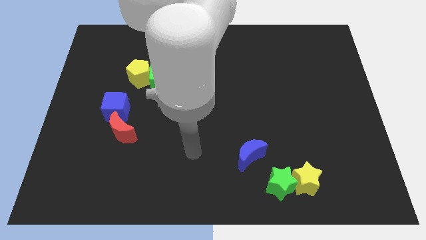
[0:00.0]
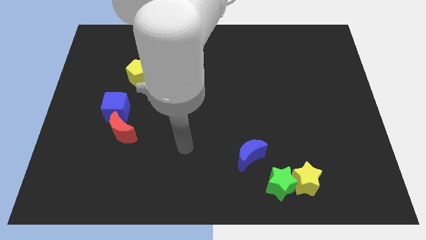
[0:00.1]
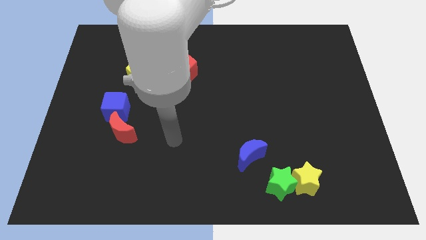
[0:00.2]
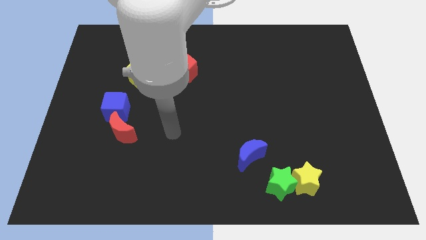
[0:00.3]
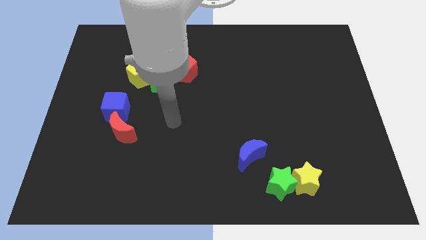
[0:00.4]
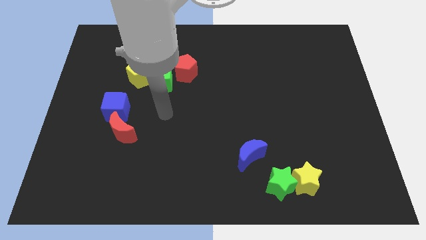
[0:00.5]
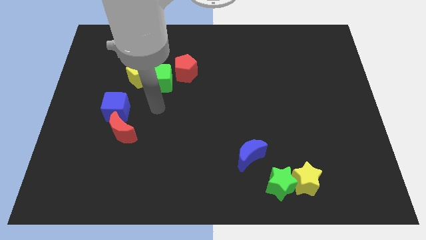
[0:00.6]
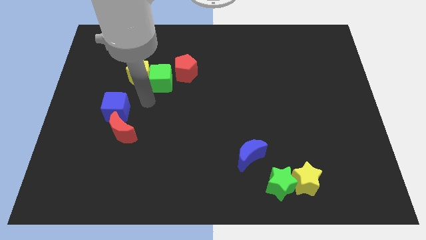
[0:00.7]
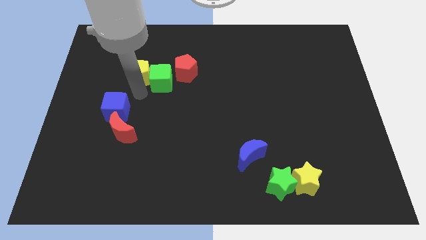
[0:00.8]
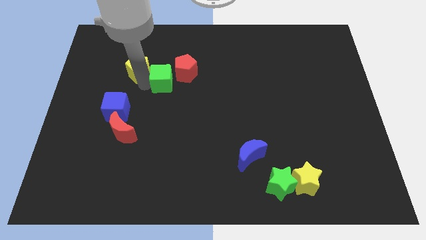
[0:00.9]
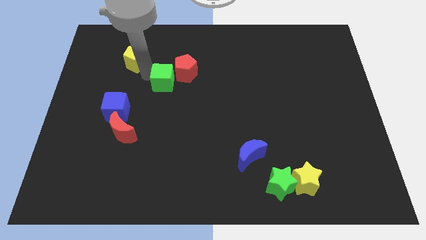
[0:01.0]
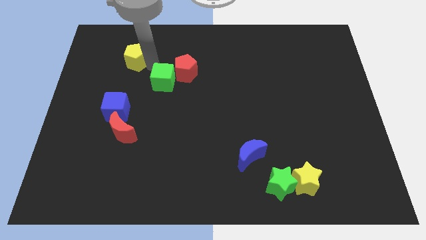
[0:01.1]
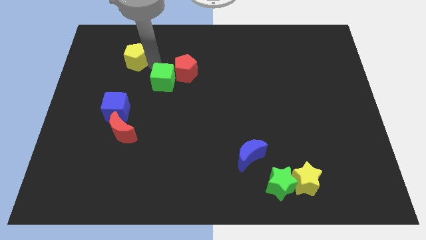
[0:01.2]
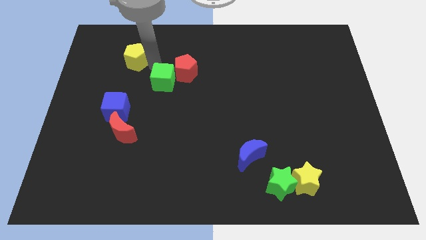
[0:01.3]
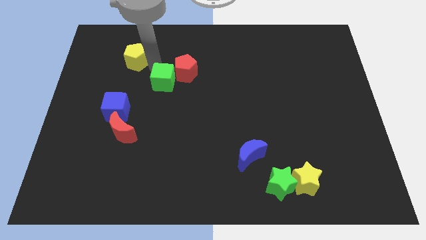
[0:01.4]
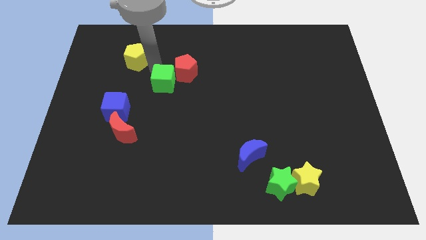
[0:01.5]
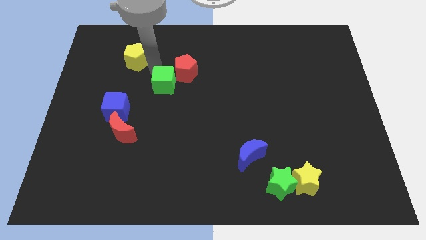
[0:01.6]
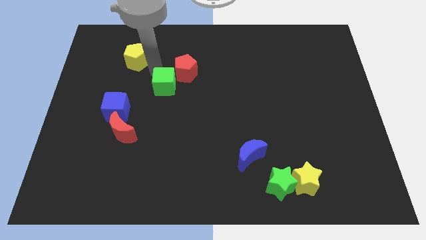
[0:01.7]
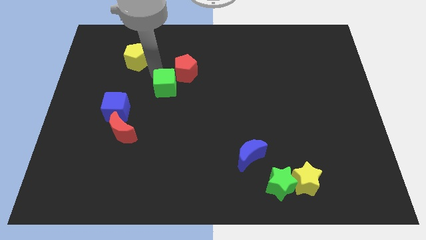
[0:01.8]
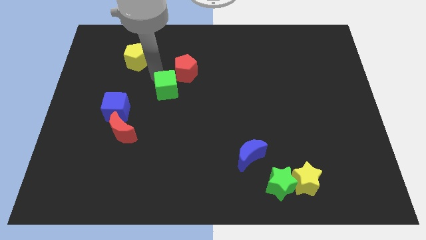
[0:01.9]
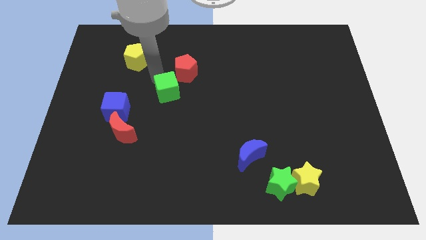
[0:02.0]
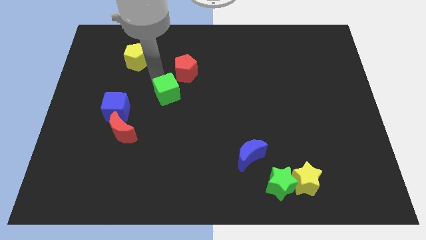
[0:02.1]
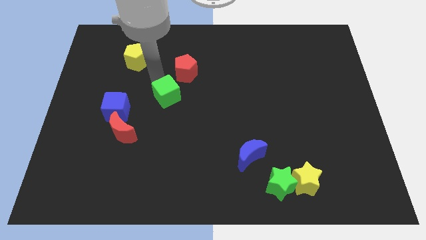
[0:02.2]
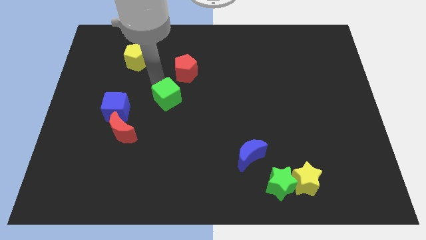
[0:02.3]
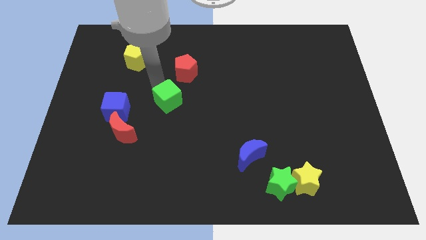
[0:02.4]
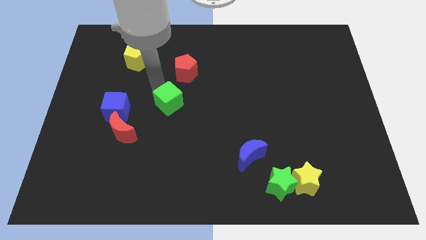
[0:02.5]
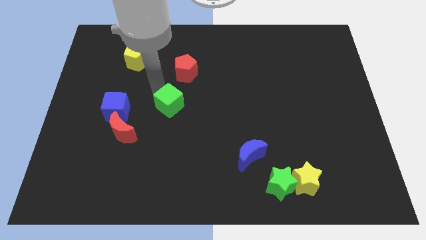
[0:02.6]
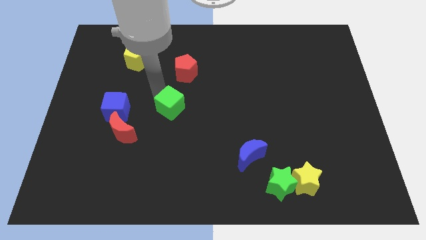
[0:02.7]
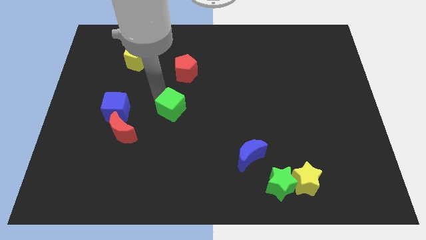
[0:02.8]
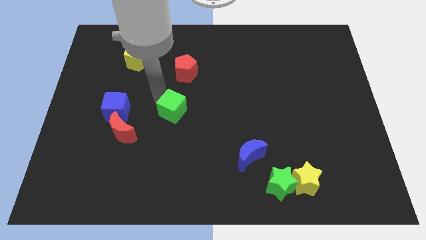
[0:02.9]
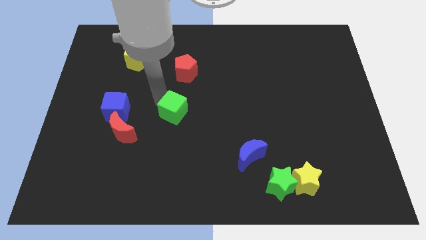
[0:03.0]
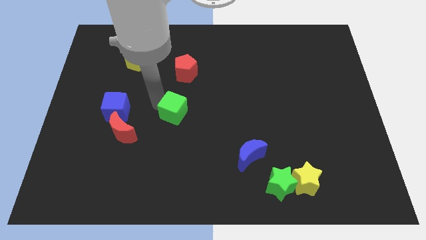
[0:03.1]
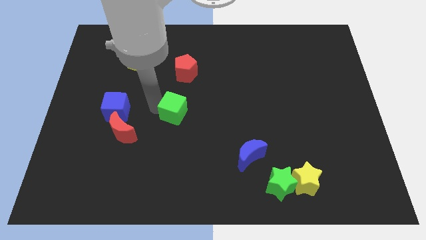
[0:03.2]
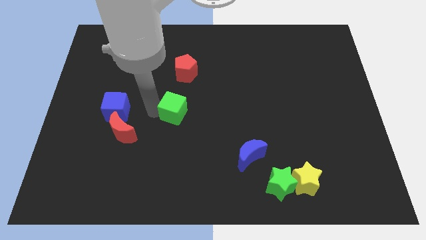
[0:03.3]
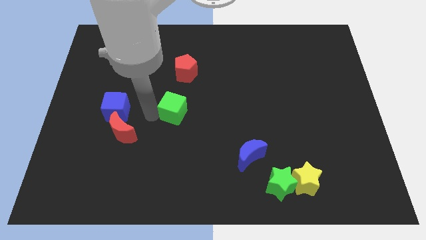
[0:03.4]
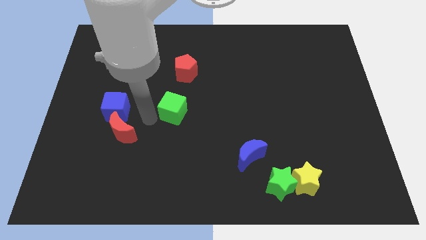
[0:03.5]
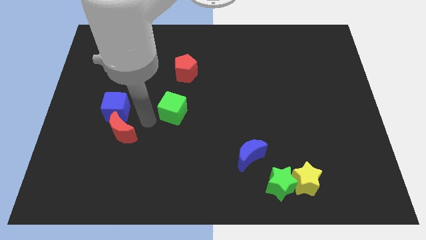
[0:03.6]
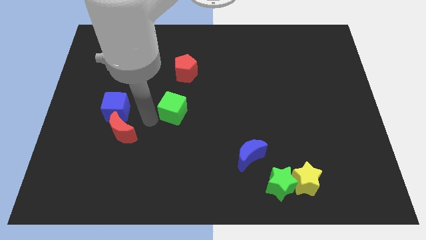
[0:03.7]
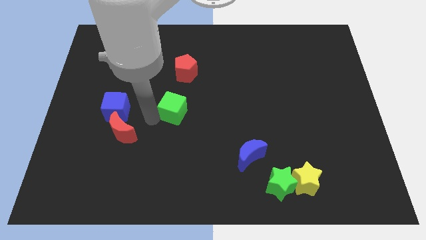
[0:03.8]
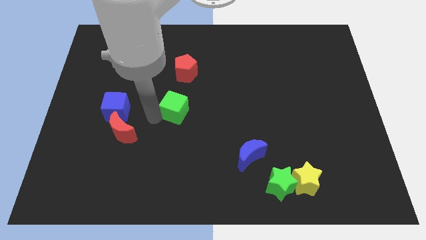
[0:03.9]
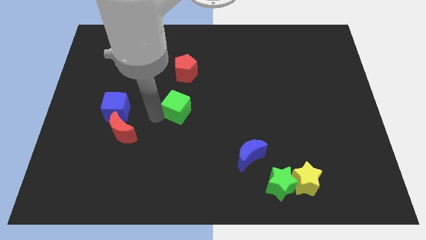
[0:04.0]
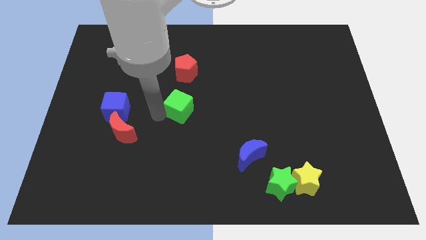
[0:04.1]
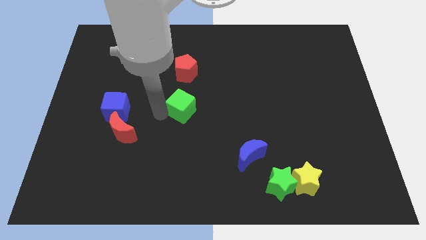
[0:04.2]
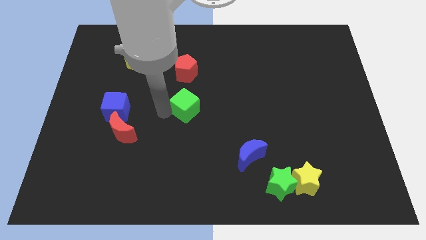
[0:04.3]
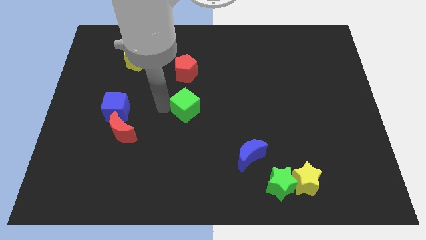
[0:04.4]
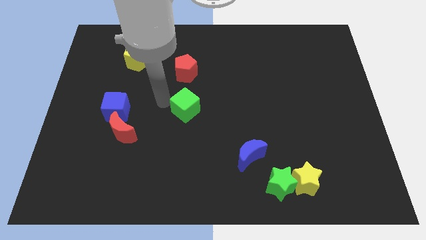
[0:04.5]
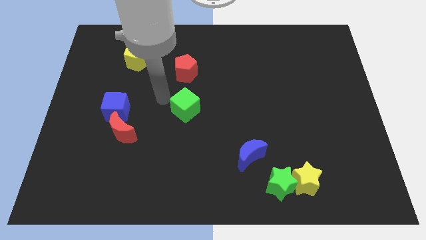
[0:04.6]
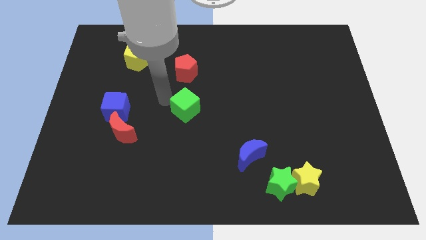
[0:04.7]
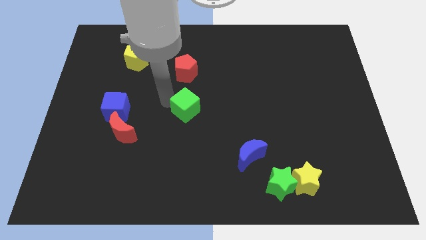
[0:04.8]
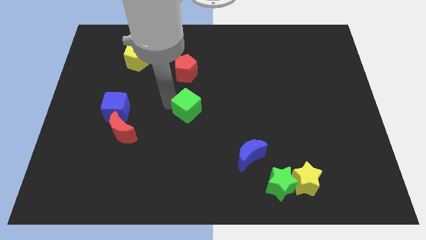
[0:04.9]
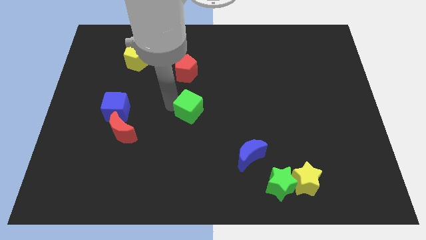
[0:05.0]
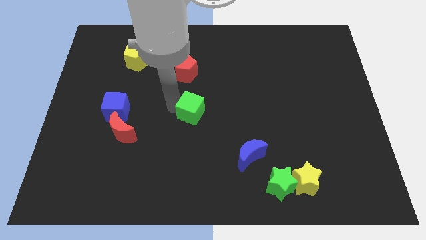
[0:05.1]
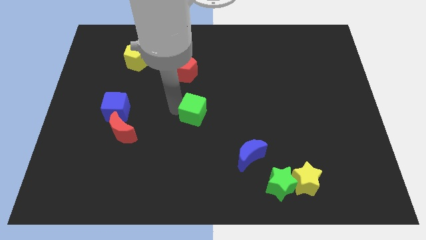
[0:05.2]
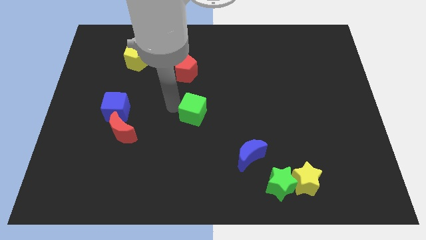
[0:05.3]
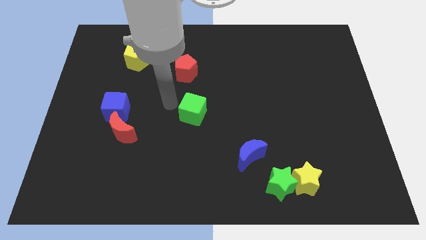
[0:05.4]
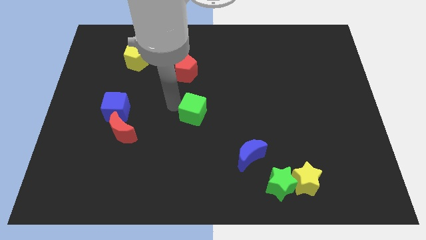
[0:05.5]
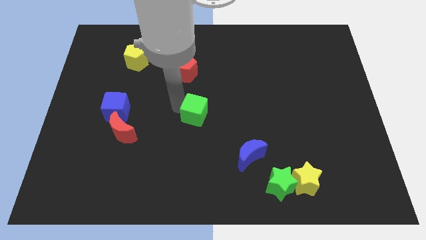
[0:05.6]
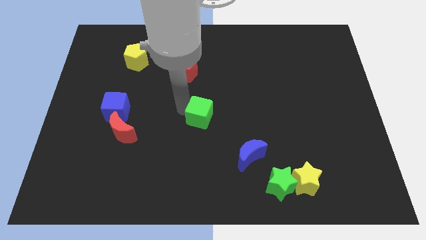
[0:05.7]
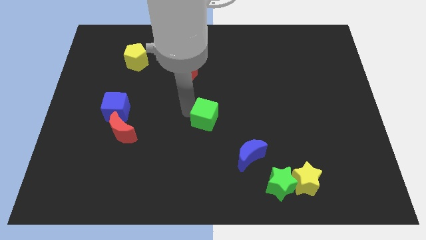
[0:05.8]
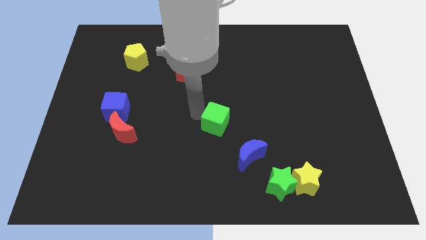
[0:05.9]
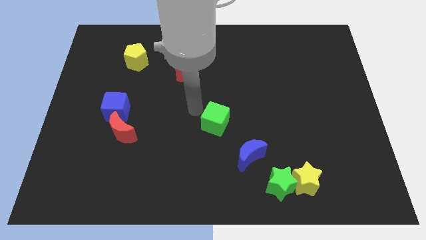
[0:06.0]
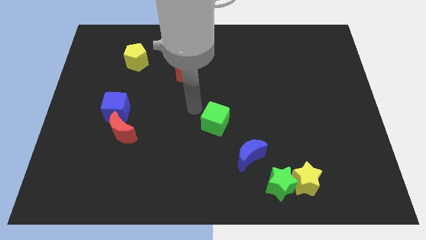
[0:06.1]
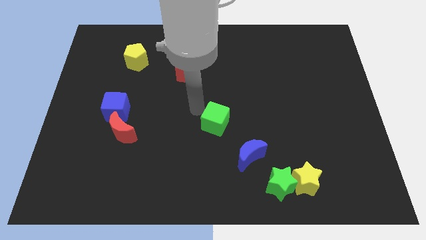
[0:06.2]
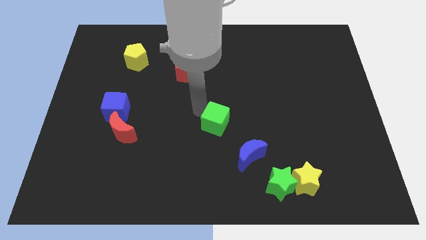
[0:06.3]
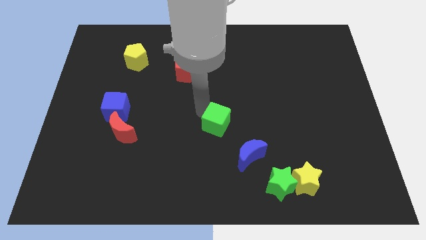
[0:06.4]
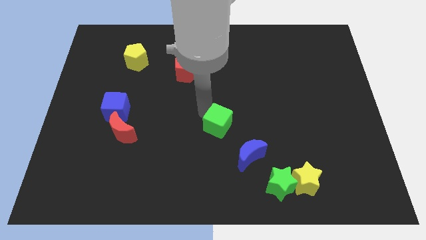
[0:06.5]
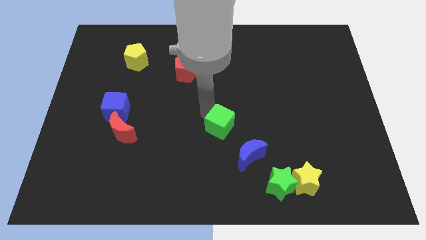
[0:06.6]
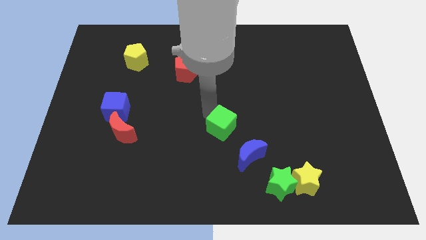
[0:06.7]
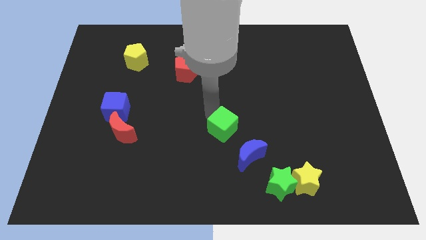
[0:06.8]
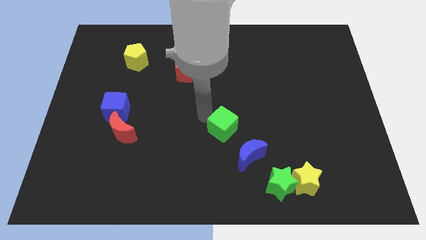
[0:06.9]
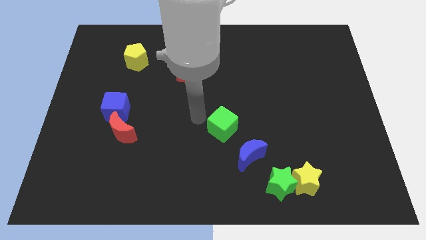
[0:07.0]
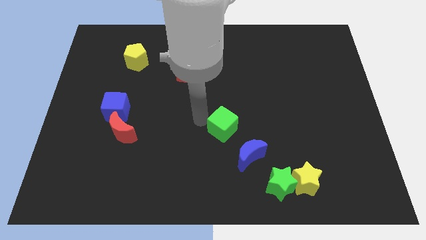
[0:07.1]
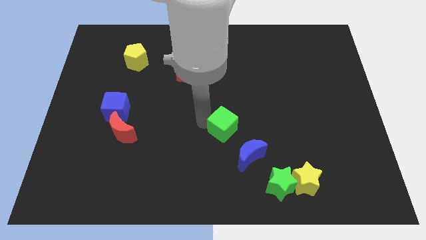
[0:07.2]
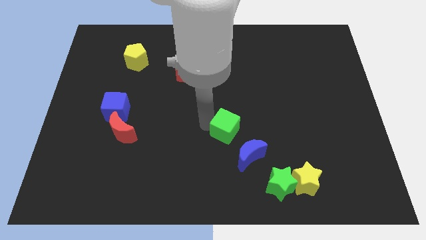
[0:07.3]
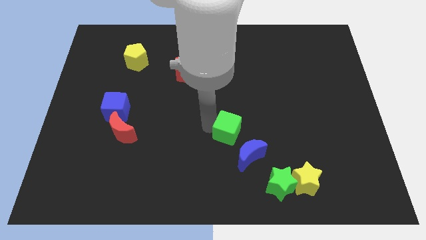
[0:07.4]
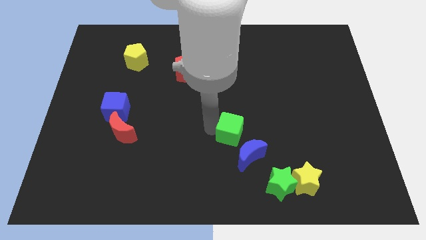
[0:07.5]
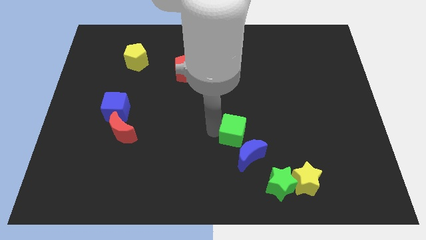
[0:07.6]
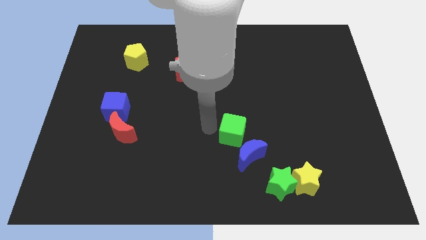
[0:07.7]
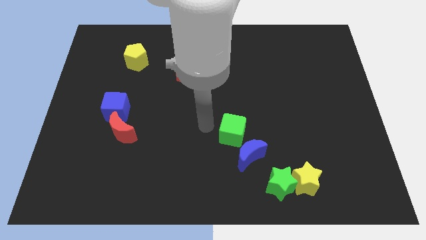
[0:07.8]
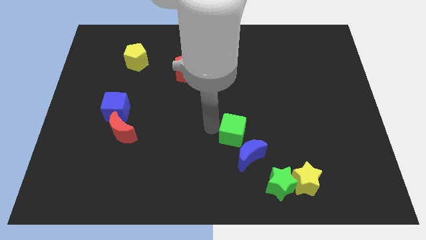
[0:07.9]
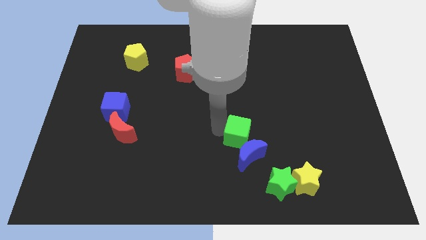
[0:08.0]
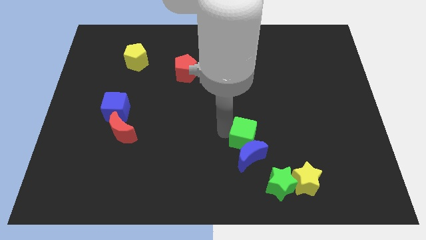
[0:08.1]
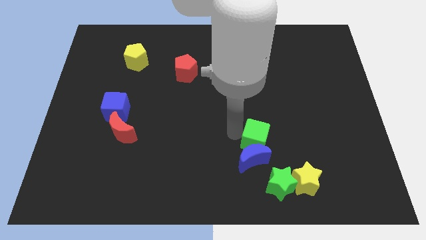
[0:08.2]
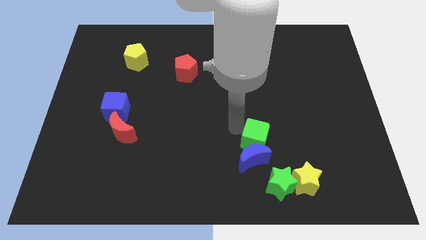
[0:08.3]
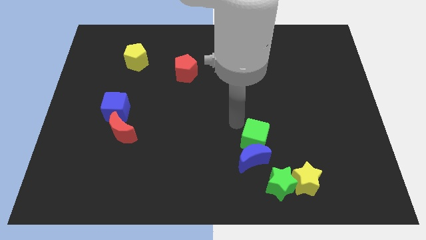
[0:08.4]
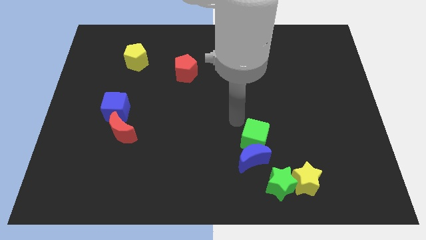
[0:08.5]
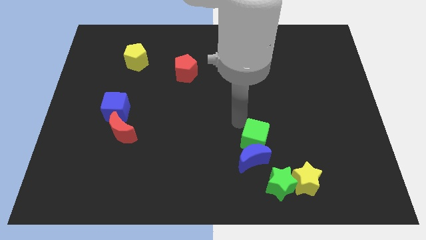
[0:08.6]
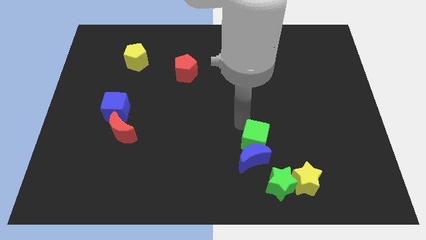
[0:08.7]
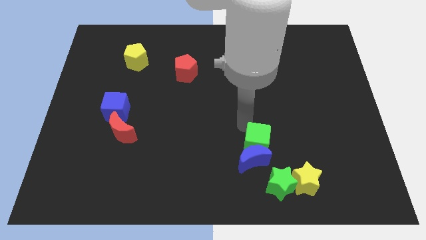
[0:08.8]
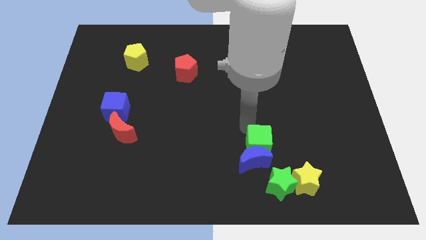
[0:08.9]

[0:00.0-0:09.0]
move the green cube to the top left side of the yellow star
